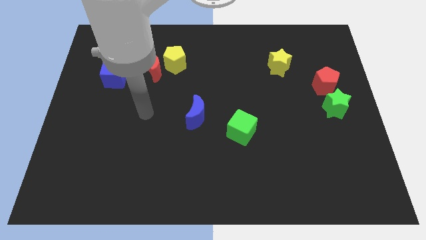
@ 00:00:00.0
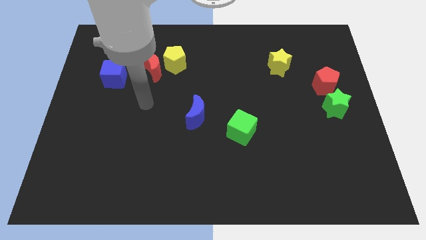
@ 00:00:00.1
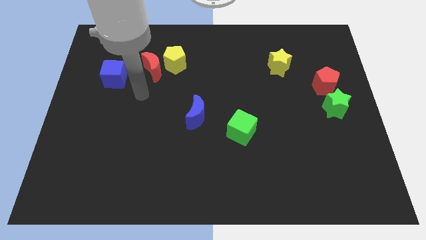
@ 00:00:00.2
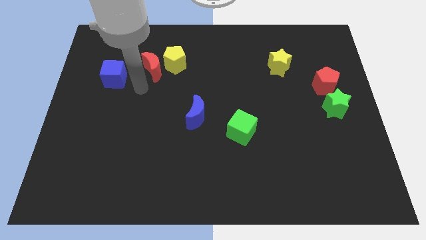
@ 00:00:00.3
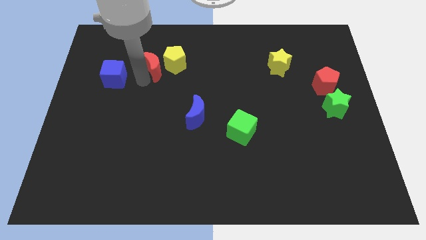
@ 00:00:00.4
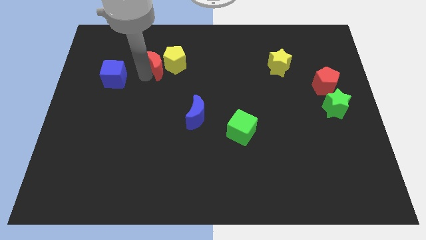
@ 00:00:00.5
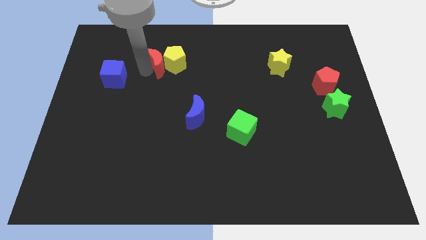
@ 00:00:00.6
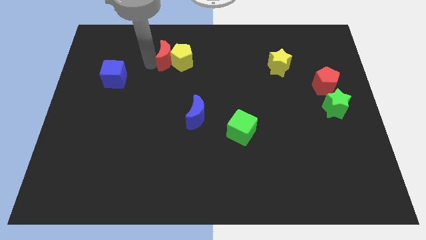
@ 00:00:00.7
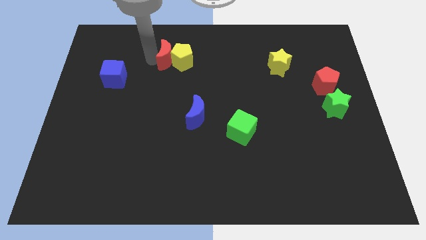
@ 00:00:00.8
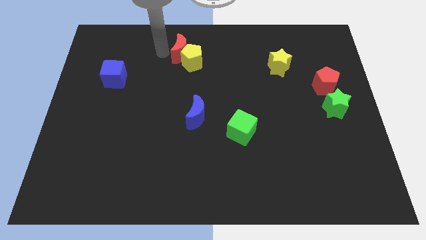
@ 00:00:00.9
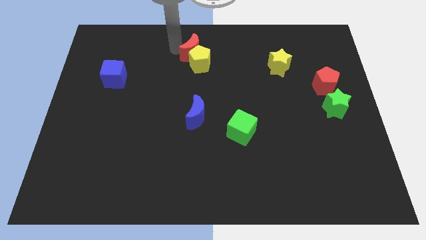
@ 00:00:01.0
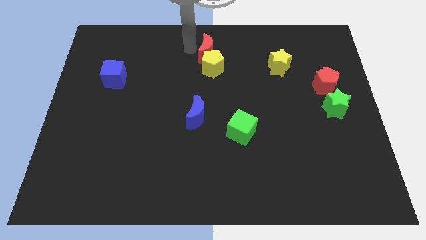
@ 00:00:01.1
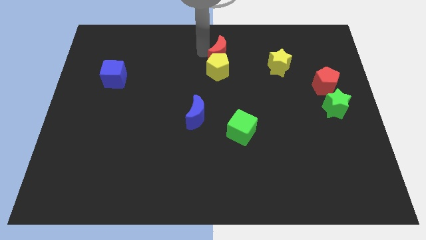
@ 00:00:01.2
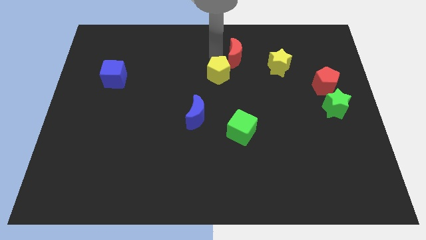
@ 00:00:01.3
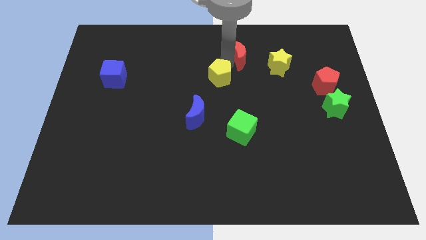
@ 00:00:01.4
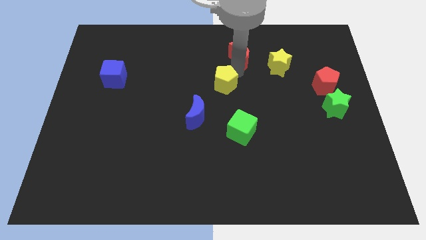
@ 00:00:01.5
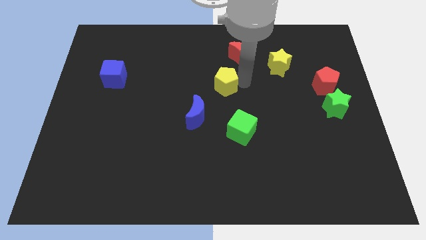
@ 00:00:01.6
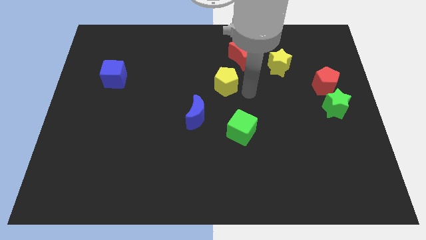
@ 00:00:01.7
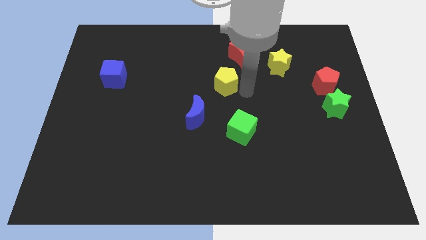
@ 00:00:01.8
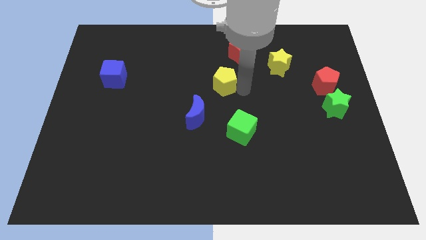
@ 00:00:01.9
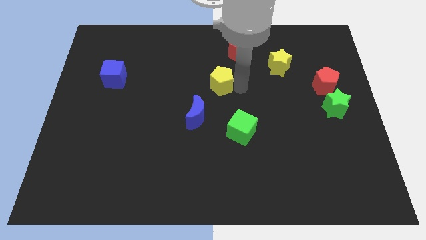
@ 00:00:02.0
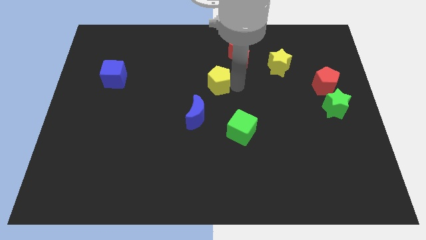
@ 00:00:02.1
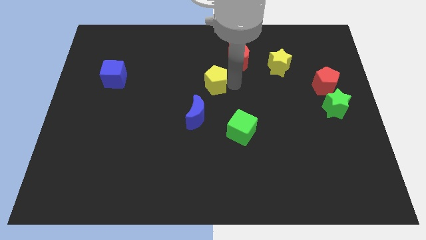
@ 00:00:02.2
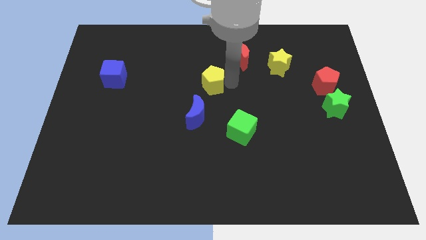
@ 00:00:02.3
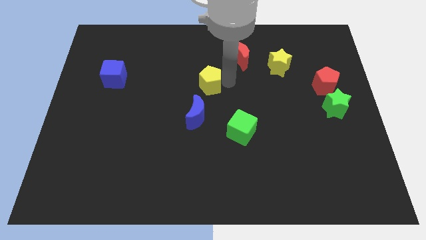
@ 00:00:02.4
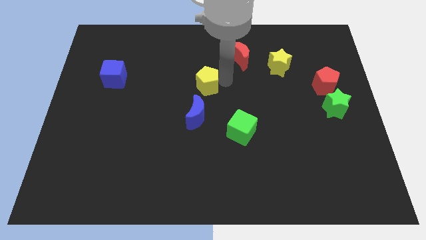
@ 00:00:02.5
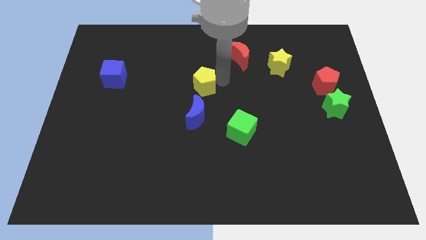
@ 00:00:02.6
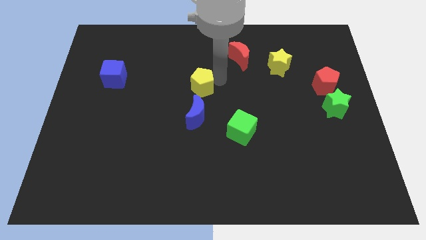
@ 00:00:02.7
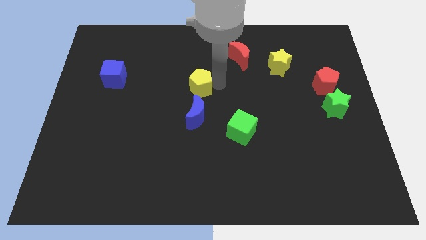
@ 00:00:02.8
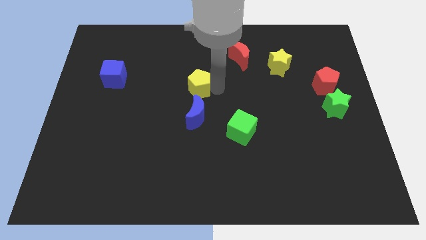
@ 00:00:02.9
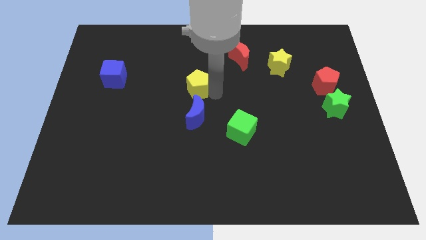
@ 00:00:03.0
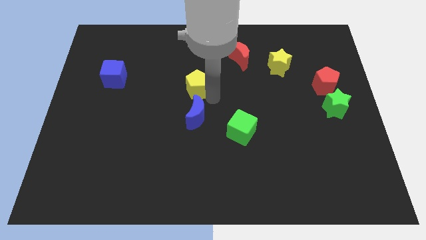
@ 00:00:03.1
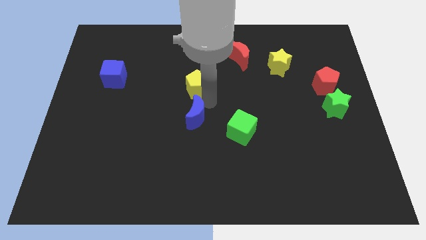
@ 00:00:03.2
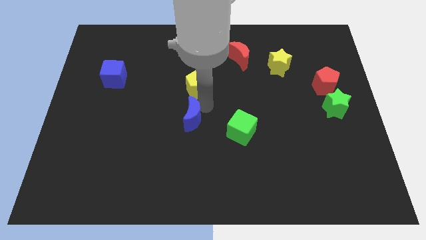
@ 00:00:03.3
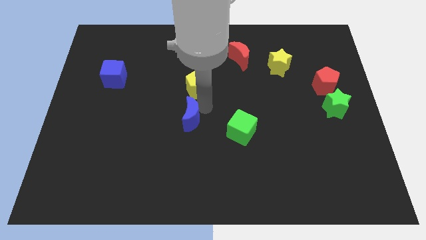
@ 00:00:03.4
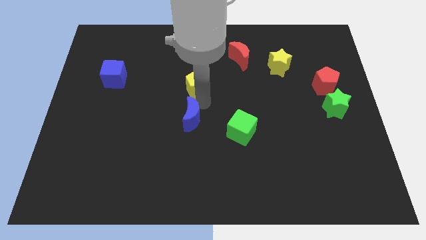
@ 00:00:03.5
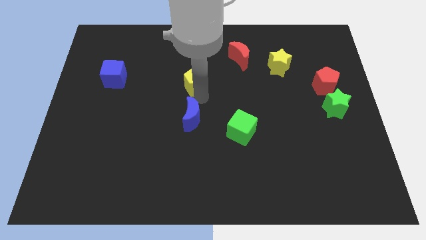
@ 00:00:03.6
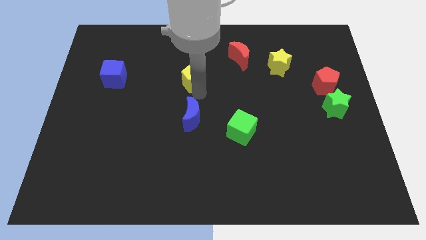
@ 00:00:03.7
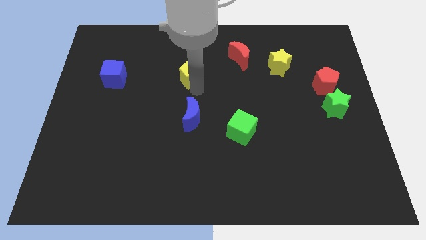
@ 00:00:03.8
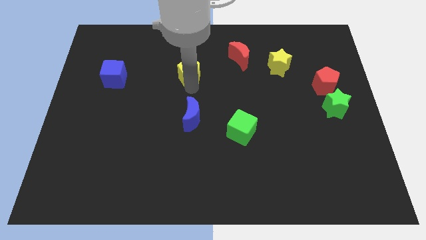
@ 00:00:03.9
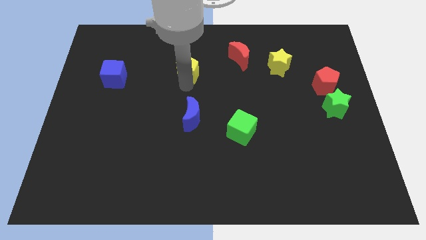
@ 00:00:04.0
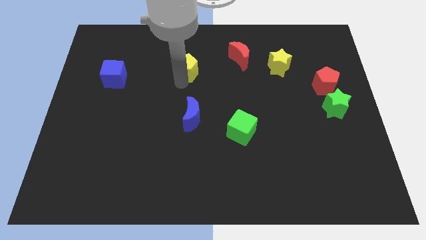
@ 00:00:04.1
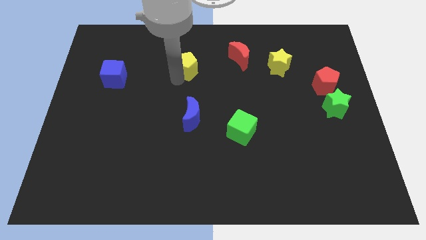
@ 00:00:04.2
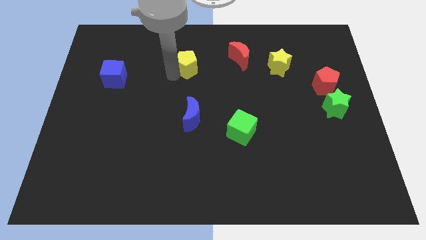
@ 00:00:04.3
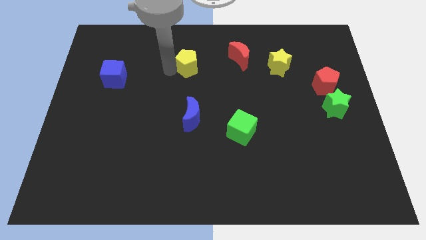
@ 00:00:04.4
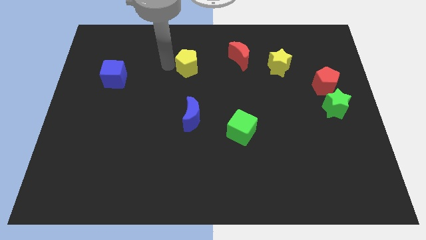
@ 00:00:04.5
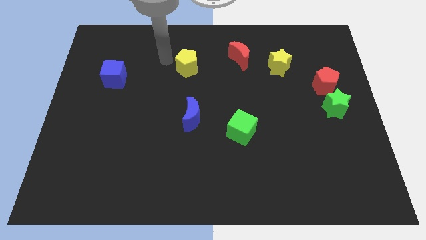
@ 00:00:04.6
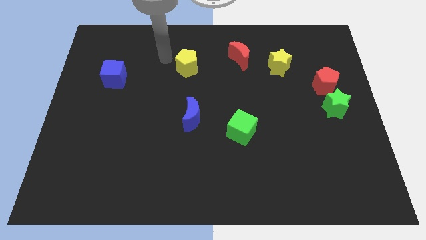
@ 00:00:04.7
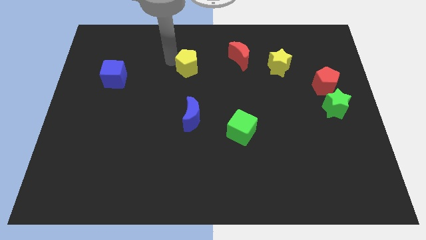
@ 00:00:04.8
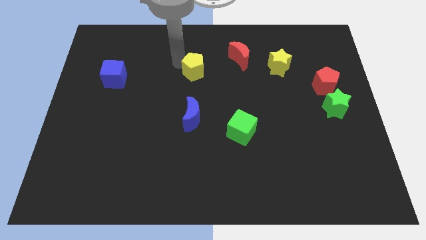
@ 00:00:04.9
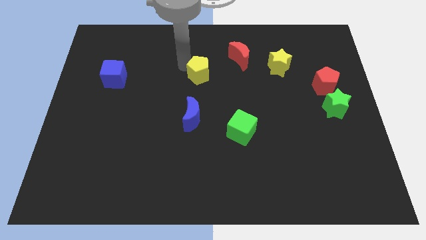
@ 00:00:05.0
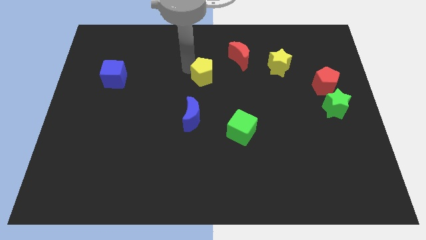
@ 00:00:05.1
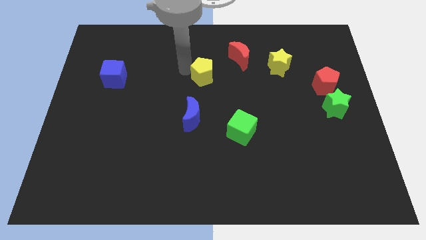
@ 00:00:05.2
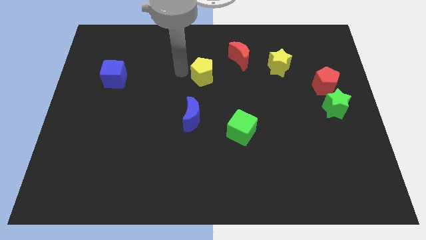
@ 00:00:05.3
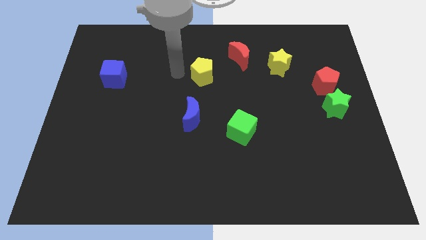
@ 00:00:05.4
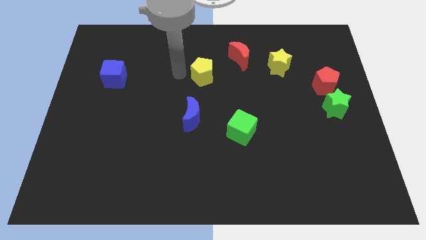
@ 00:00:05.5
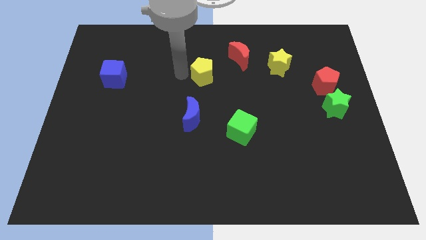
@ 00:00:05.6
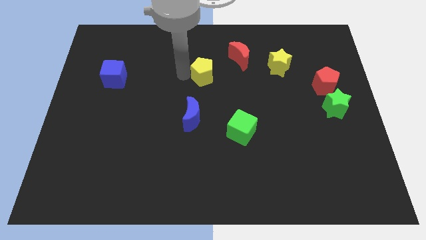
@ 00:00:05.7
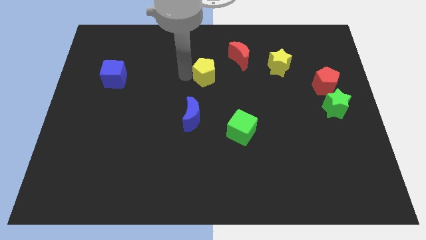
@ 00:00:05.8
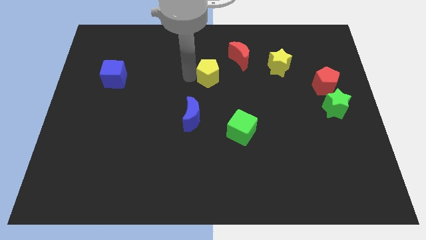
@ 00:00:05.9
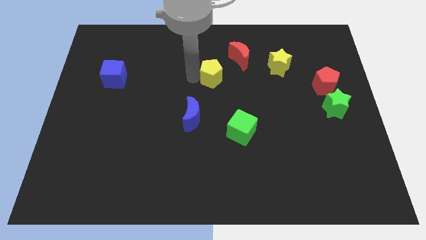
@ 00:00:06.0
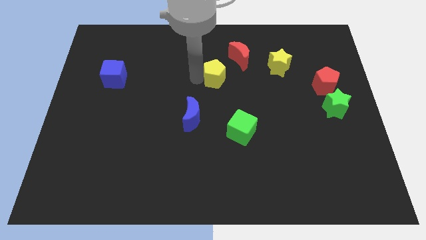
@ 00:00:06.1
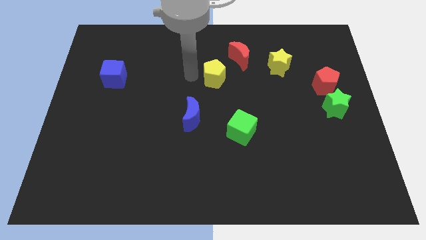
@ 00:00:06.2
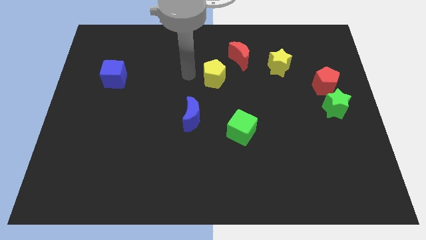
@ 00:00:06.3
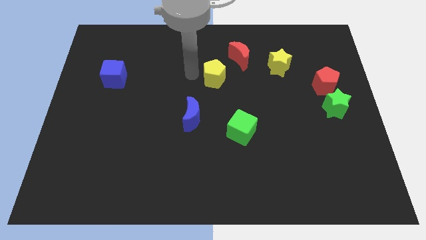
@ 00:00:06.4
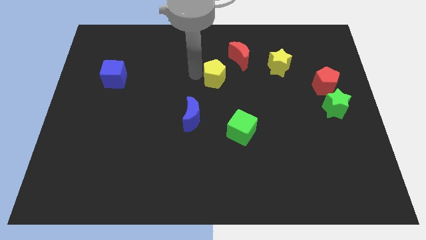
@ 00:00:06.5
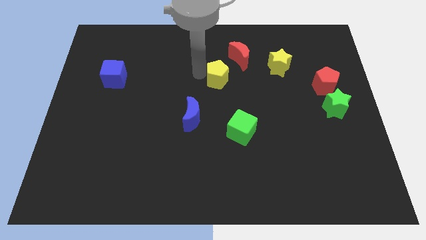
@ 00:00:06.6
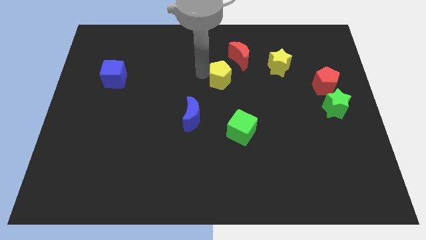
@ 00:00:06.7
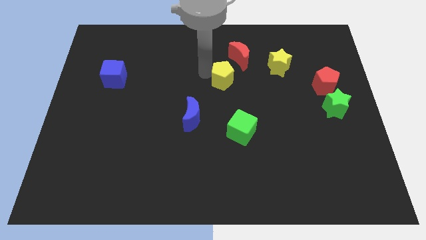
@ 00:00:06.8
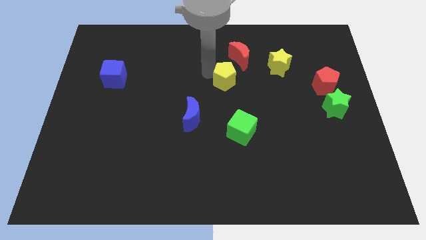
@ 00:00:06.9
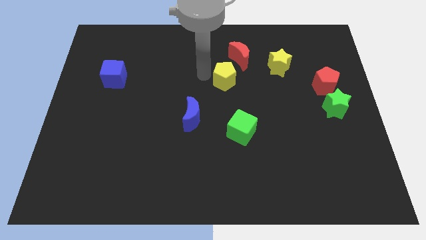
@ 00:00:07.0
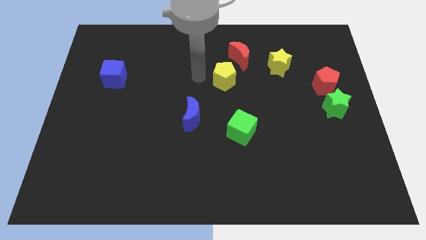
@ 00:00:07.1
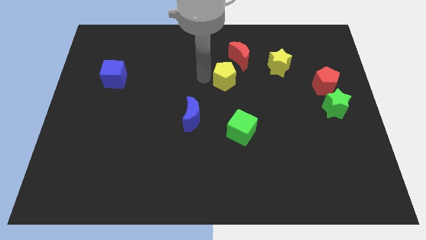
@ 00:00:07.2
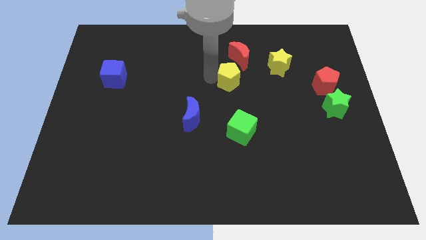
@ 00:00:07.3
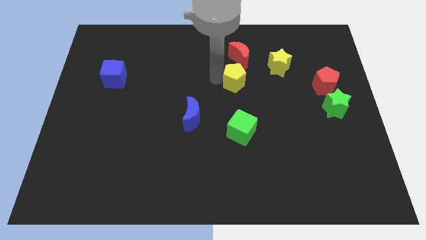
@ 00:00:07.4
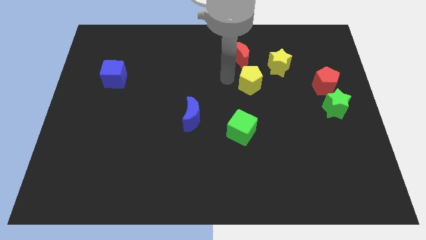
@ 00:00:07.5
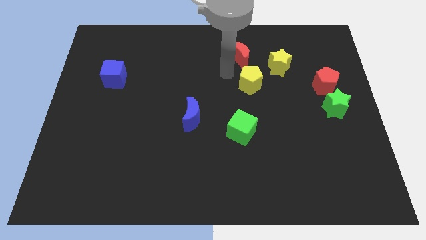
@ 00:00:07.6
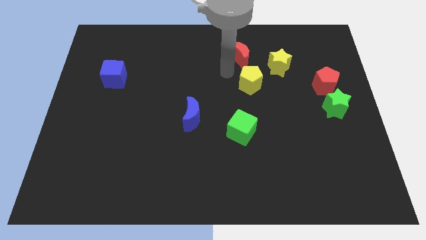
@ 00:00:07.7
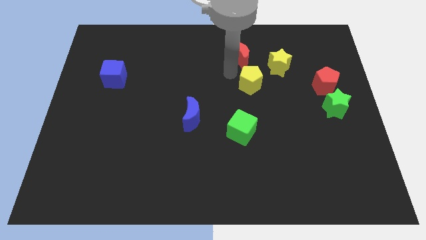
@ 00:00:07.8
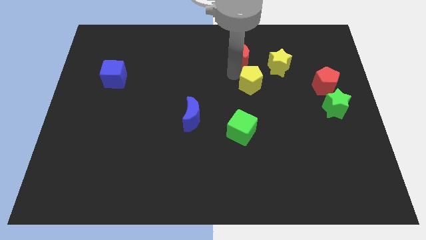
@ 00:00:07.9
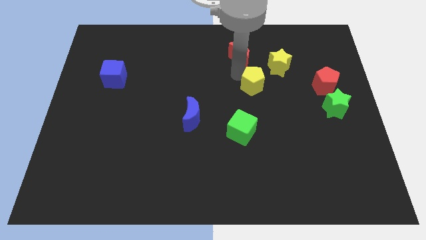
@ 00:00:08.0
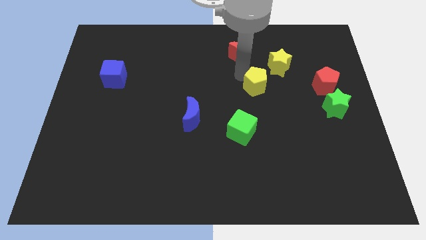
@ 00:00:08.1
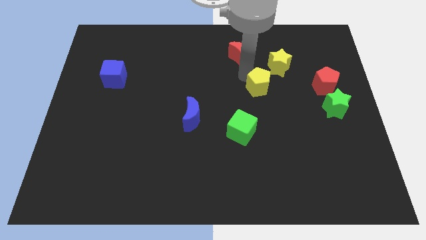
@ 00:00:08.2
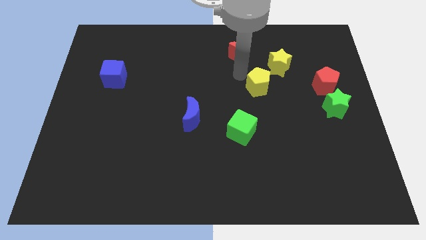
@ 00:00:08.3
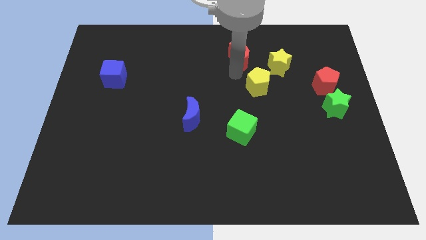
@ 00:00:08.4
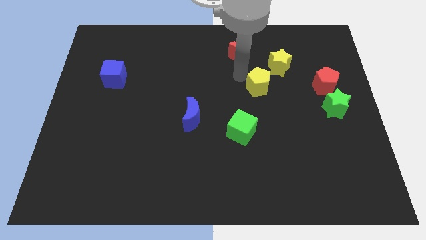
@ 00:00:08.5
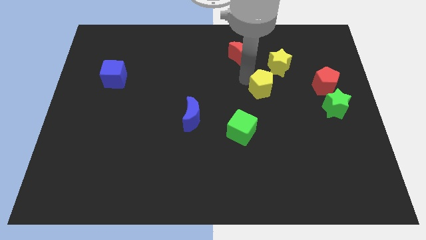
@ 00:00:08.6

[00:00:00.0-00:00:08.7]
put the yellow pentagon to the bottom side of the yellow star
